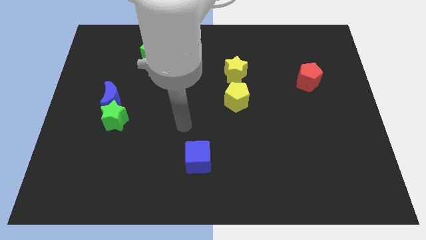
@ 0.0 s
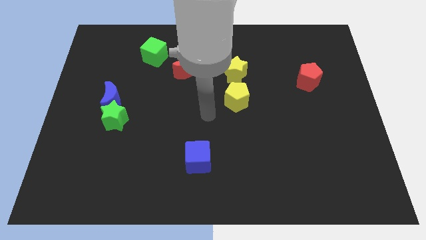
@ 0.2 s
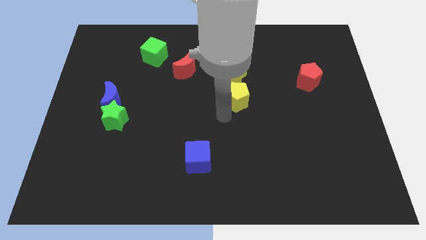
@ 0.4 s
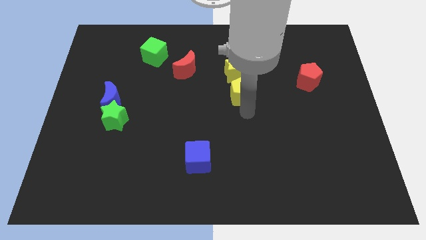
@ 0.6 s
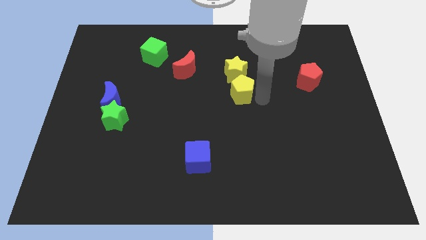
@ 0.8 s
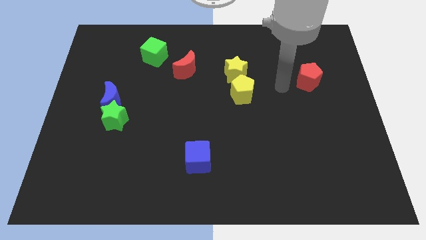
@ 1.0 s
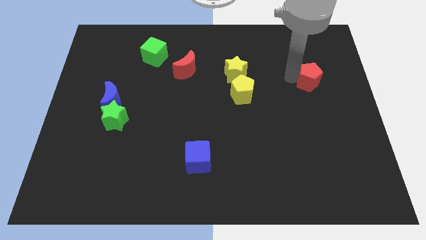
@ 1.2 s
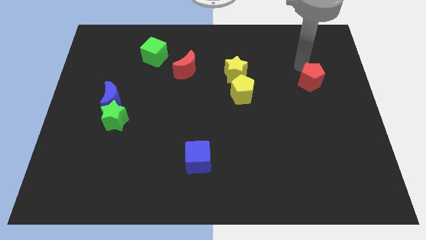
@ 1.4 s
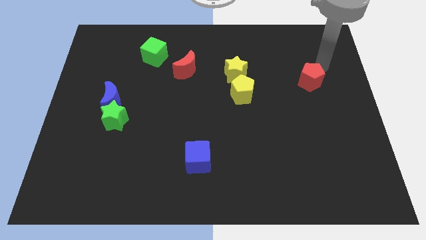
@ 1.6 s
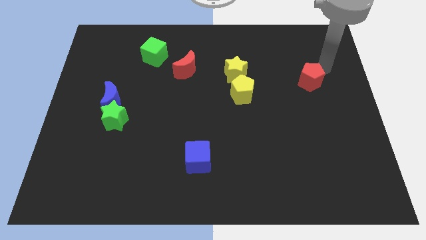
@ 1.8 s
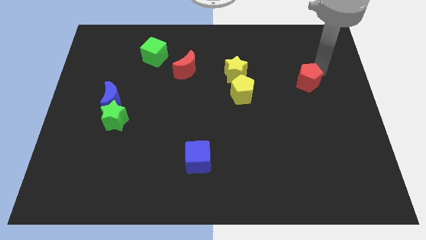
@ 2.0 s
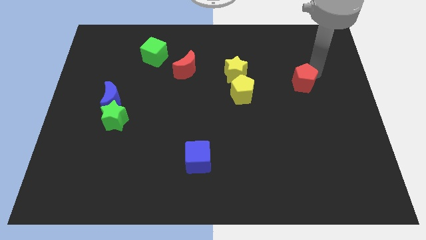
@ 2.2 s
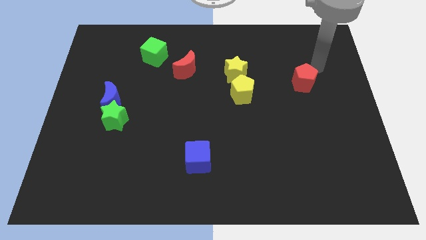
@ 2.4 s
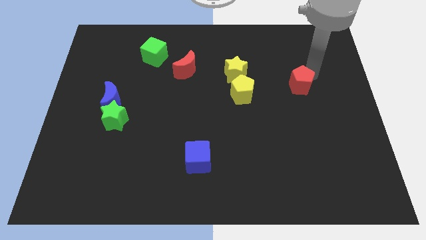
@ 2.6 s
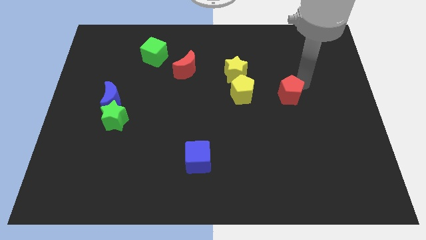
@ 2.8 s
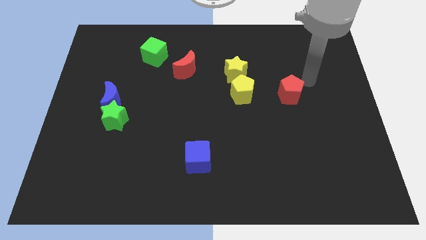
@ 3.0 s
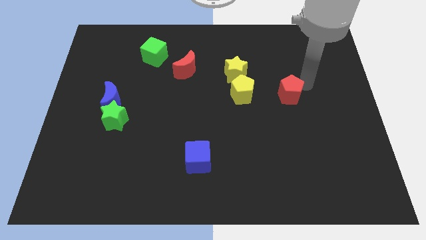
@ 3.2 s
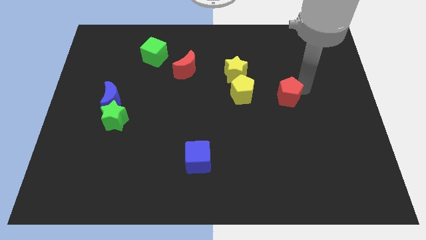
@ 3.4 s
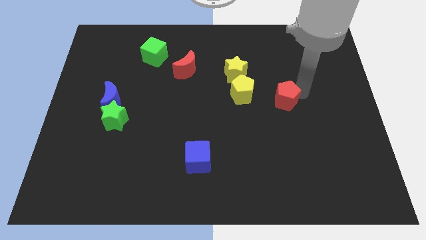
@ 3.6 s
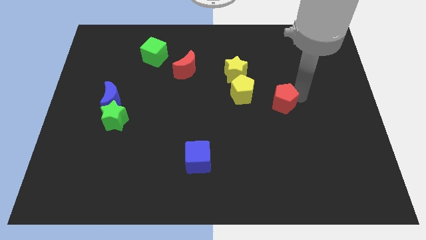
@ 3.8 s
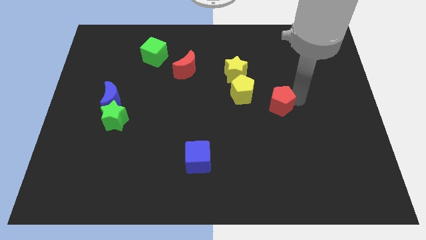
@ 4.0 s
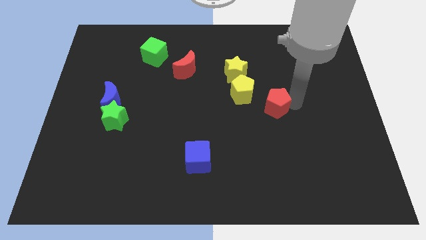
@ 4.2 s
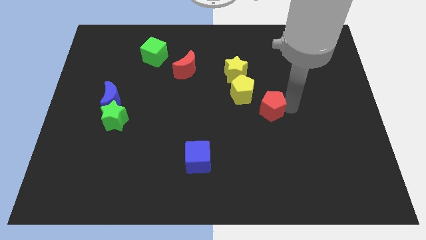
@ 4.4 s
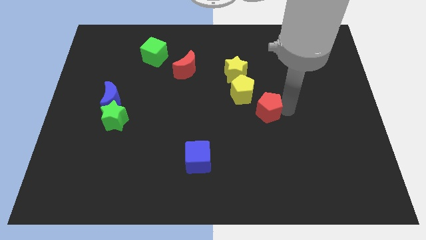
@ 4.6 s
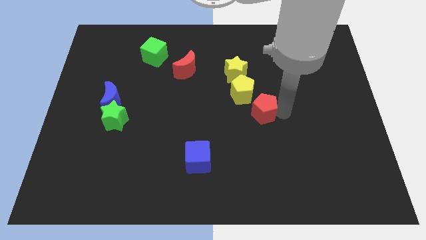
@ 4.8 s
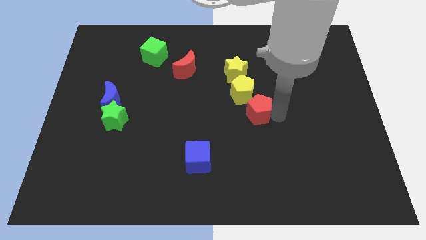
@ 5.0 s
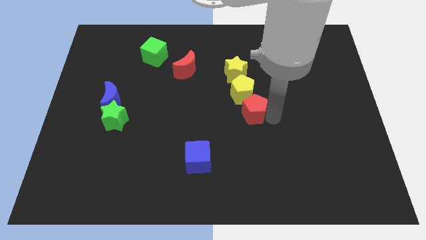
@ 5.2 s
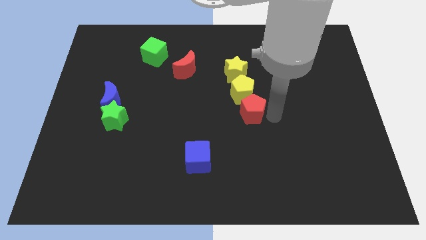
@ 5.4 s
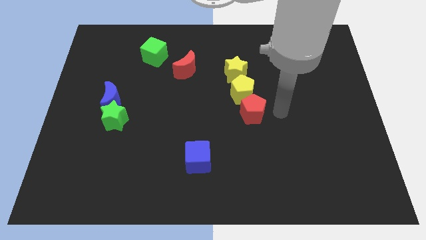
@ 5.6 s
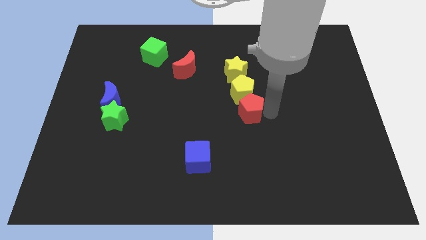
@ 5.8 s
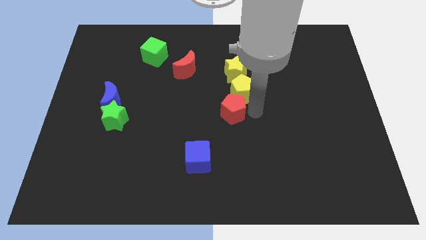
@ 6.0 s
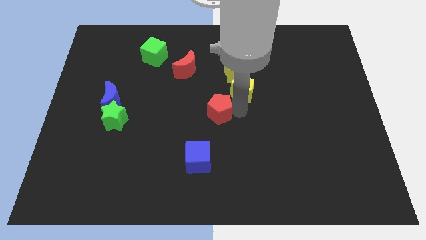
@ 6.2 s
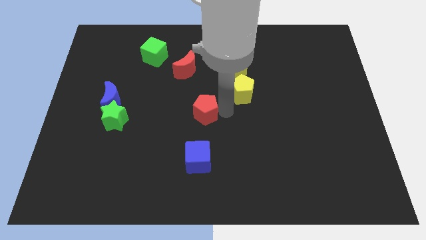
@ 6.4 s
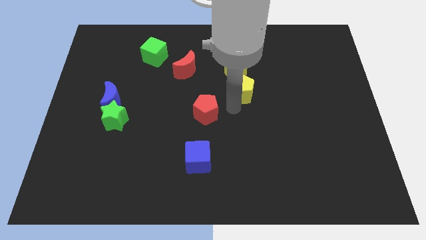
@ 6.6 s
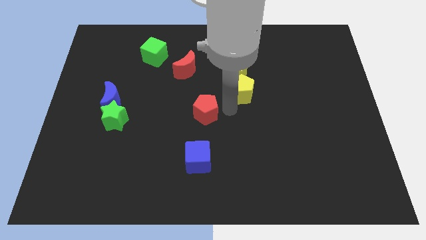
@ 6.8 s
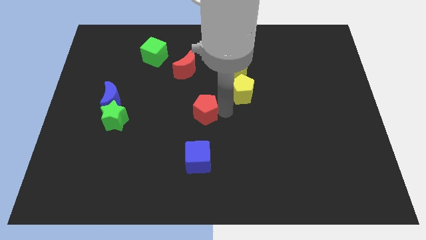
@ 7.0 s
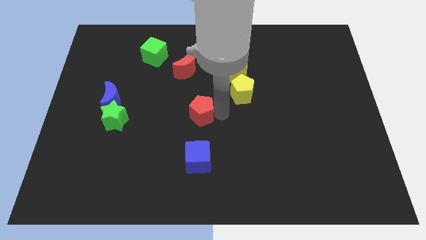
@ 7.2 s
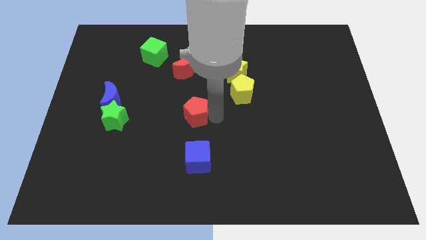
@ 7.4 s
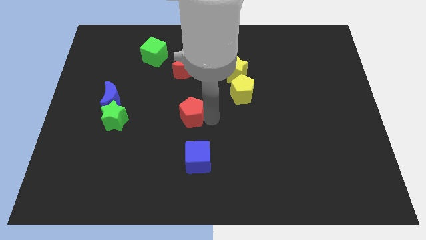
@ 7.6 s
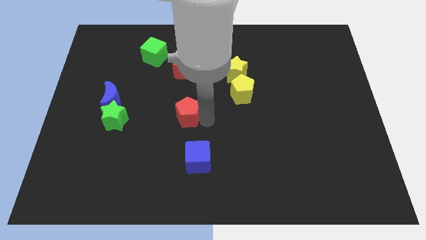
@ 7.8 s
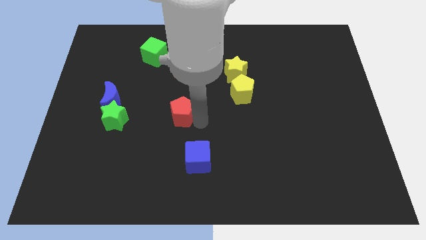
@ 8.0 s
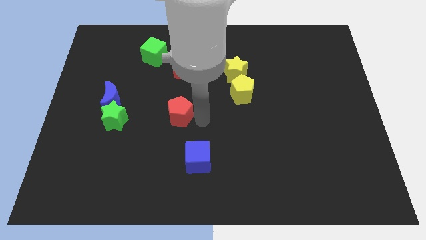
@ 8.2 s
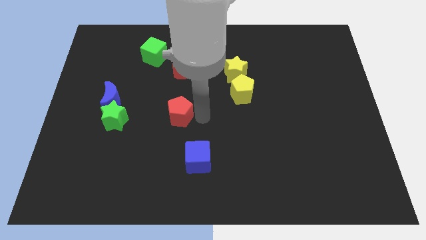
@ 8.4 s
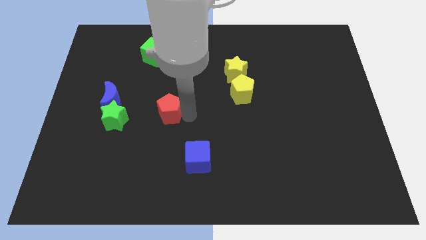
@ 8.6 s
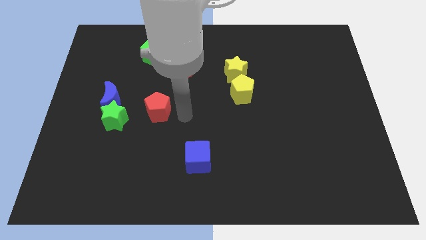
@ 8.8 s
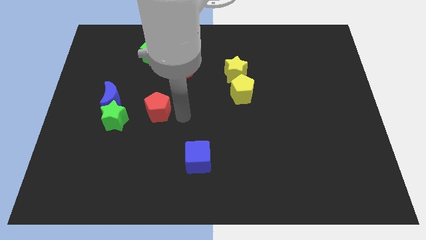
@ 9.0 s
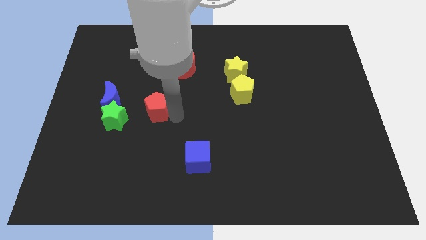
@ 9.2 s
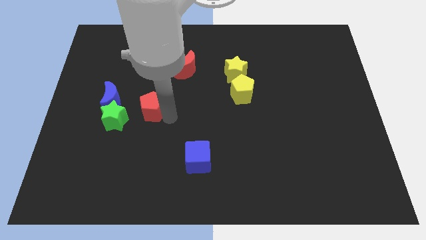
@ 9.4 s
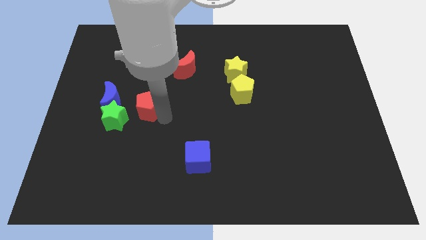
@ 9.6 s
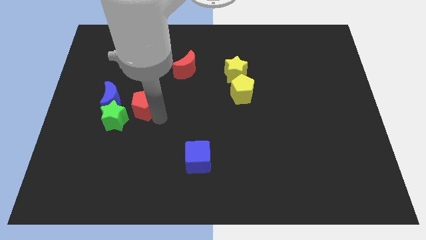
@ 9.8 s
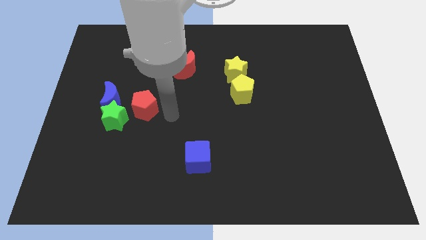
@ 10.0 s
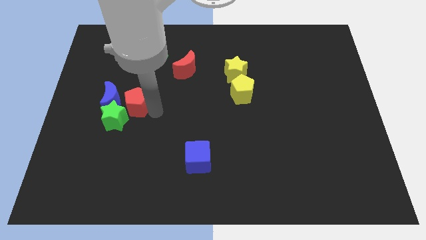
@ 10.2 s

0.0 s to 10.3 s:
push the red pentagon to the blue moon

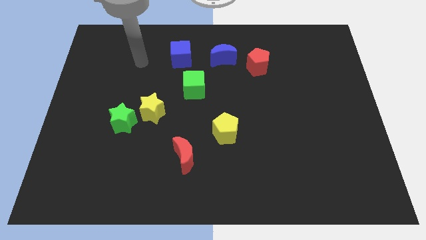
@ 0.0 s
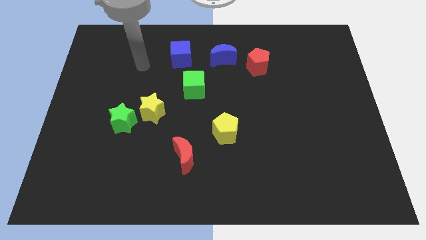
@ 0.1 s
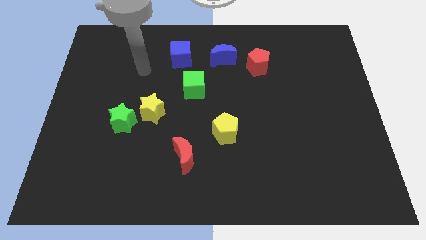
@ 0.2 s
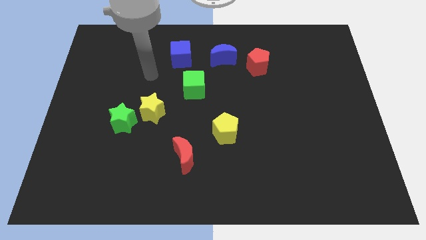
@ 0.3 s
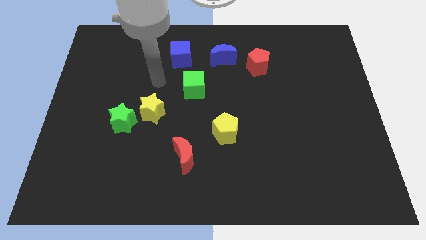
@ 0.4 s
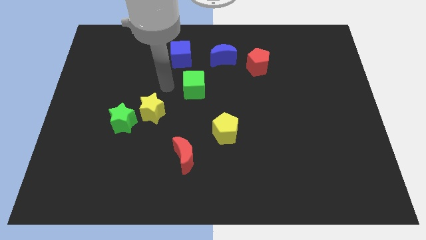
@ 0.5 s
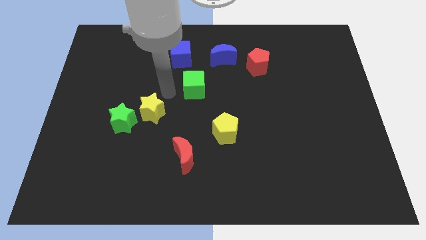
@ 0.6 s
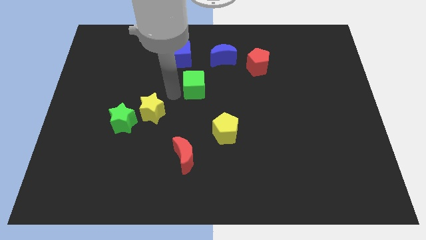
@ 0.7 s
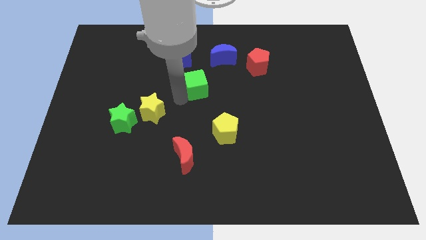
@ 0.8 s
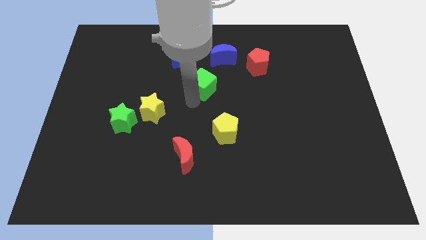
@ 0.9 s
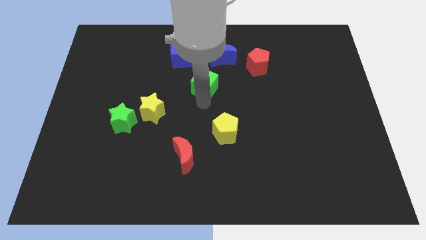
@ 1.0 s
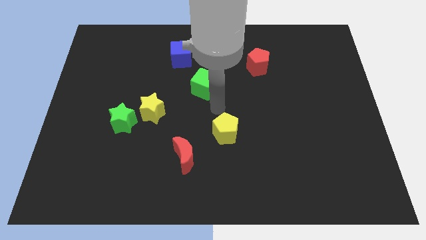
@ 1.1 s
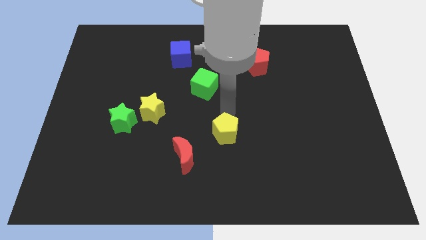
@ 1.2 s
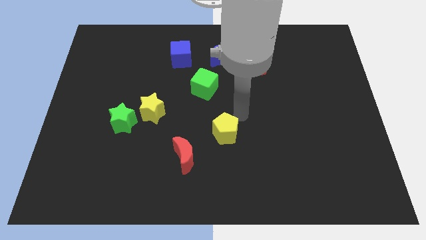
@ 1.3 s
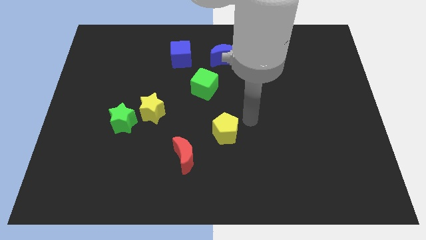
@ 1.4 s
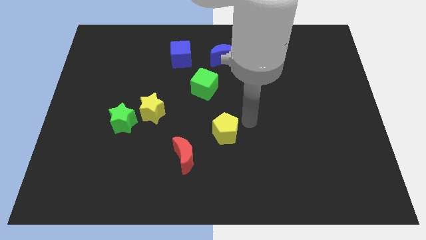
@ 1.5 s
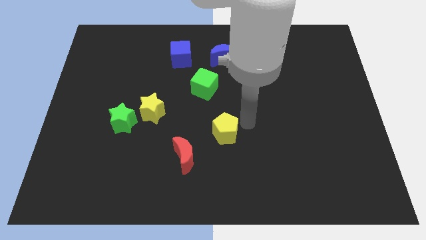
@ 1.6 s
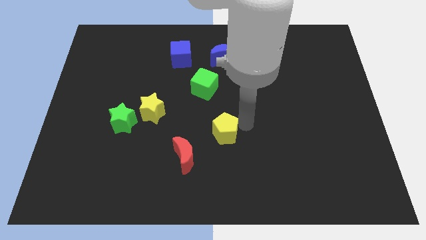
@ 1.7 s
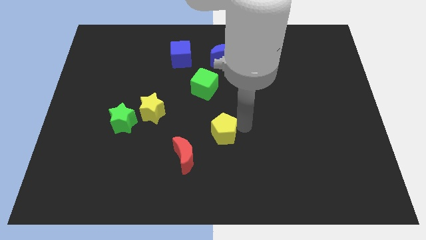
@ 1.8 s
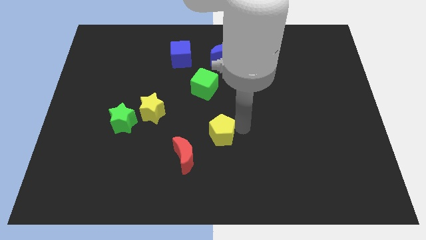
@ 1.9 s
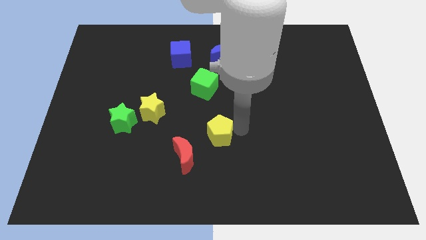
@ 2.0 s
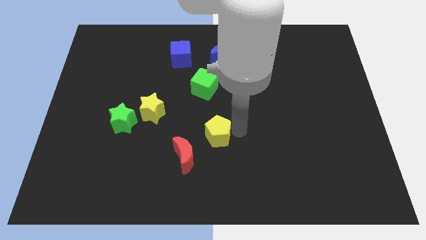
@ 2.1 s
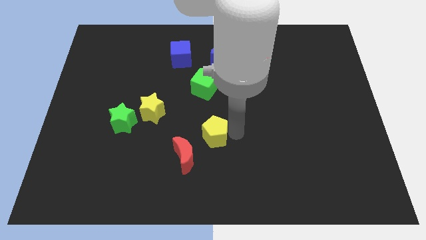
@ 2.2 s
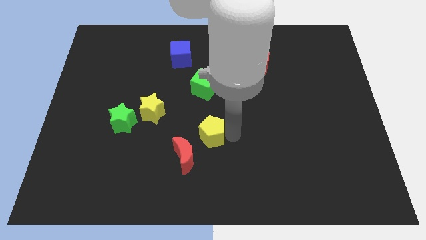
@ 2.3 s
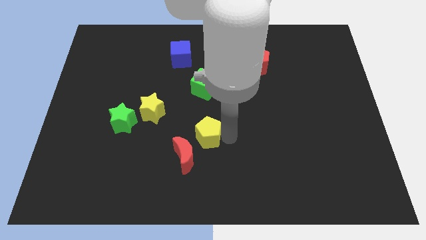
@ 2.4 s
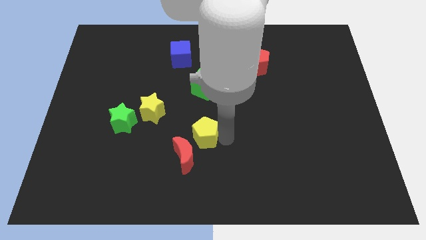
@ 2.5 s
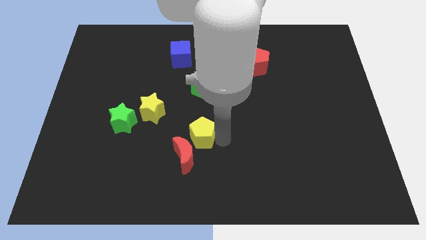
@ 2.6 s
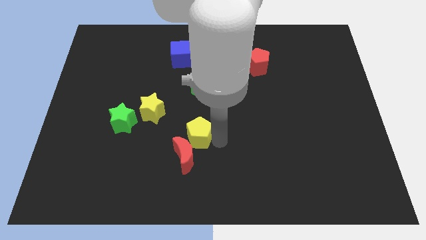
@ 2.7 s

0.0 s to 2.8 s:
put the yellow pentagon to the red moon

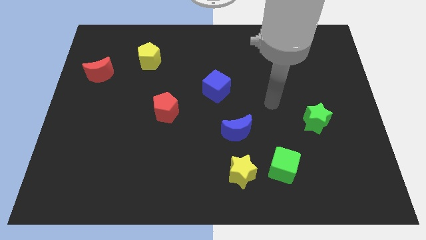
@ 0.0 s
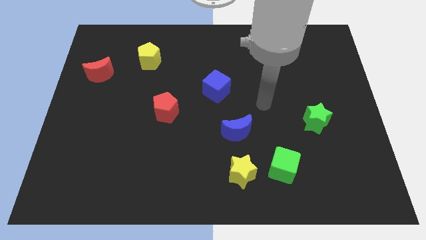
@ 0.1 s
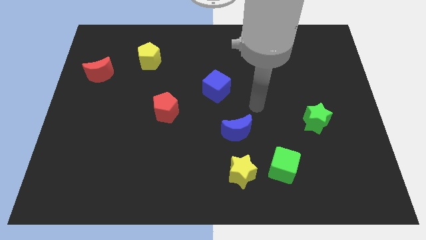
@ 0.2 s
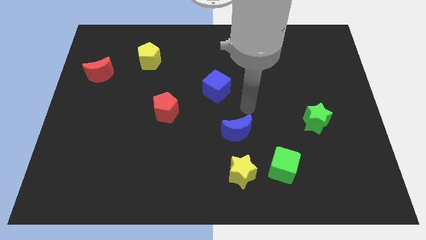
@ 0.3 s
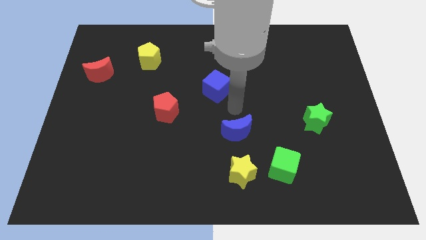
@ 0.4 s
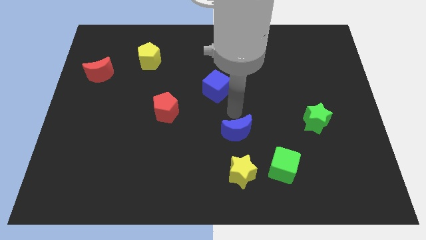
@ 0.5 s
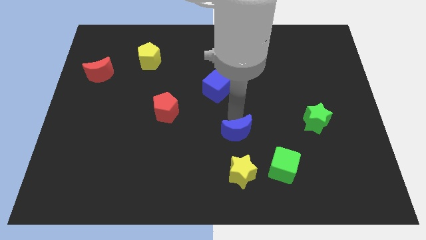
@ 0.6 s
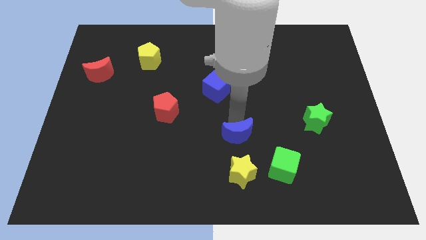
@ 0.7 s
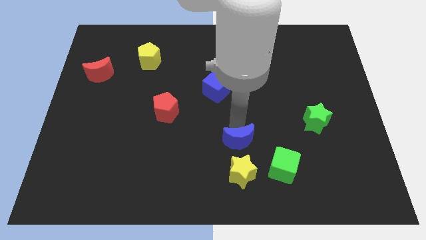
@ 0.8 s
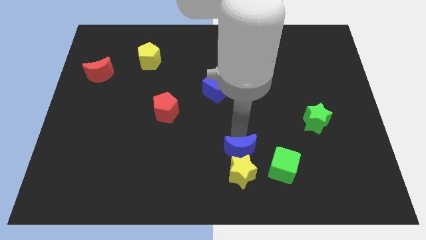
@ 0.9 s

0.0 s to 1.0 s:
push the blue moon towards the yellow star
